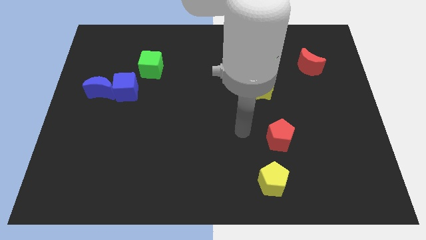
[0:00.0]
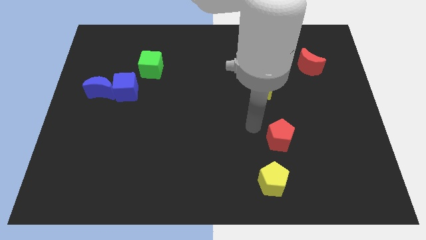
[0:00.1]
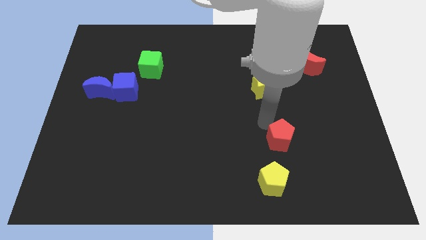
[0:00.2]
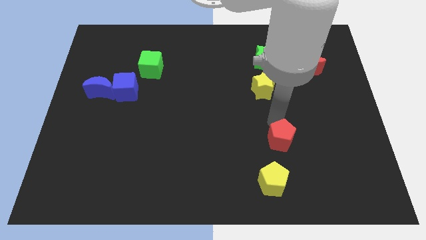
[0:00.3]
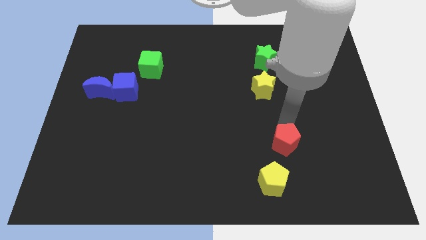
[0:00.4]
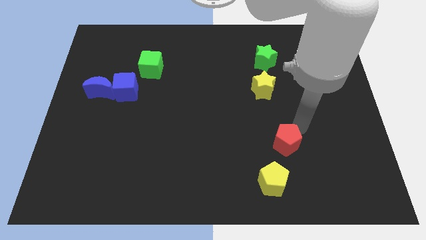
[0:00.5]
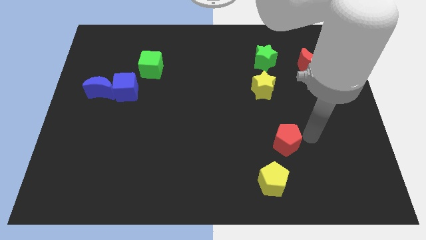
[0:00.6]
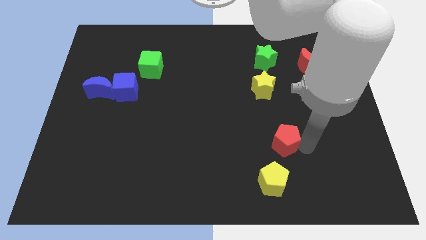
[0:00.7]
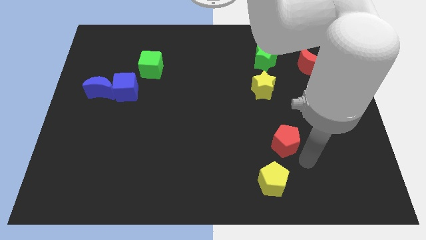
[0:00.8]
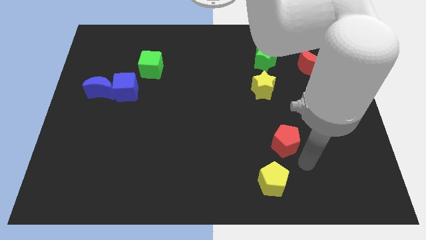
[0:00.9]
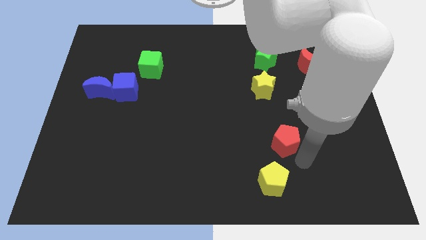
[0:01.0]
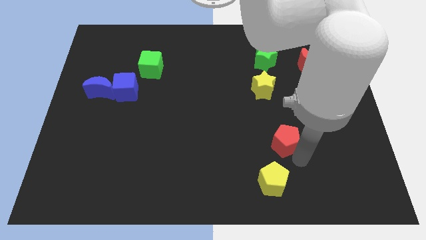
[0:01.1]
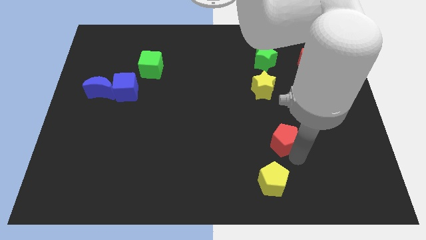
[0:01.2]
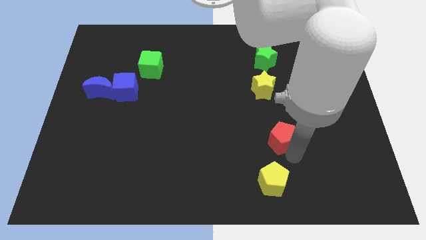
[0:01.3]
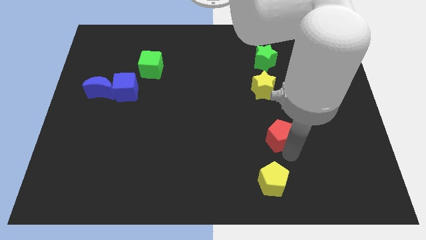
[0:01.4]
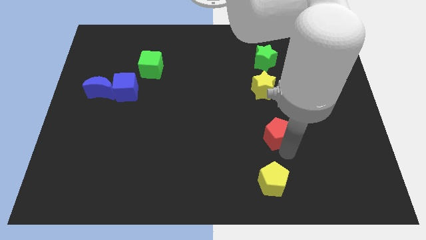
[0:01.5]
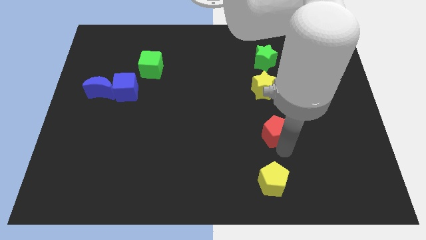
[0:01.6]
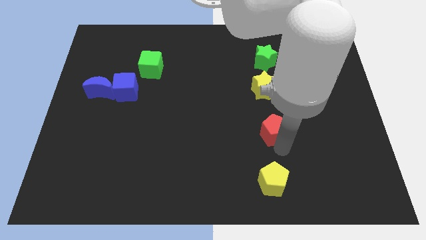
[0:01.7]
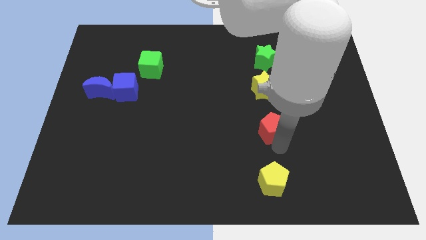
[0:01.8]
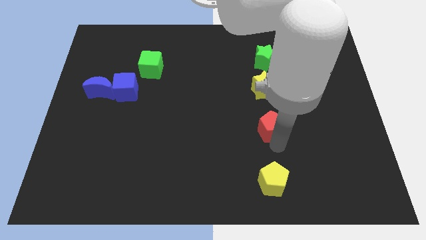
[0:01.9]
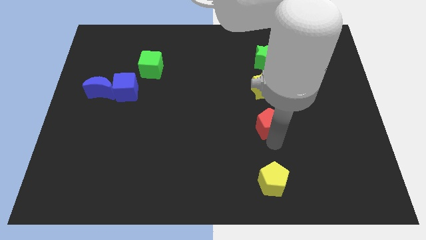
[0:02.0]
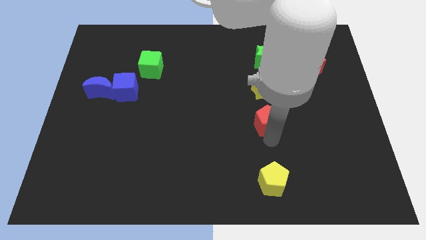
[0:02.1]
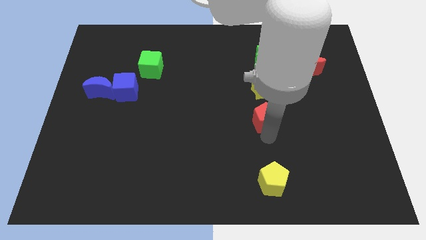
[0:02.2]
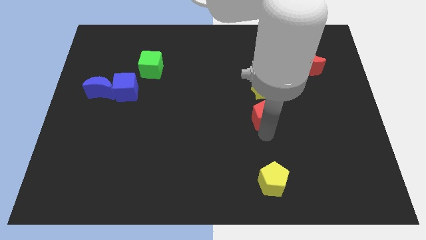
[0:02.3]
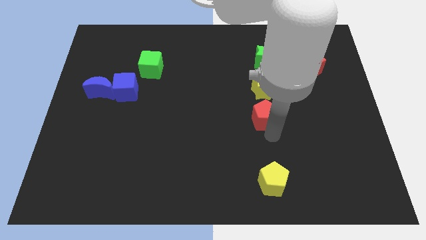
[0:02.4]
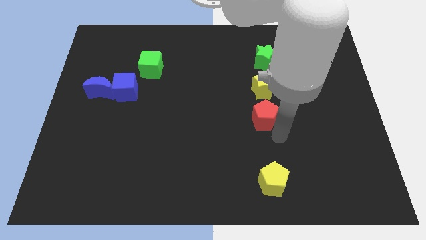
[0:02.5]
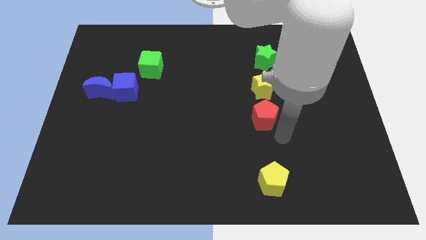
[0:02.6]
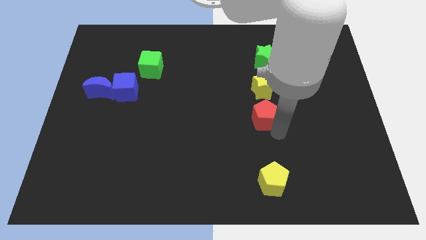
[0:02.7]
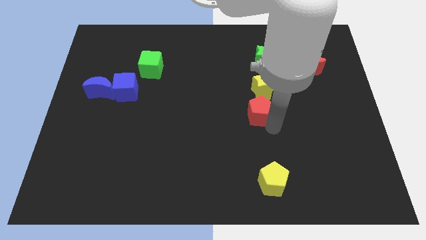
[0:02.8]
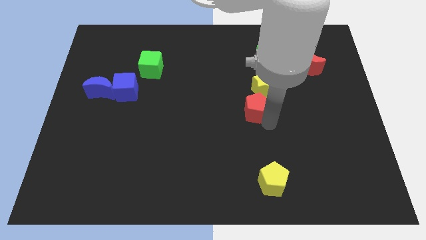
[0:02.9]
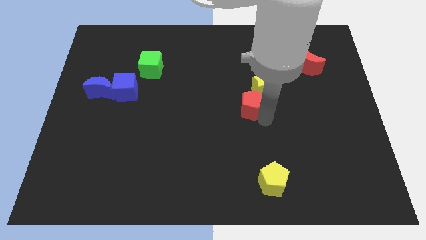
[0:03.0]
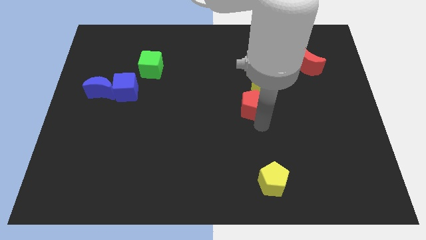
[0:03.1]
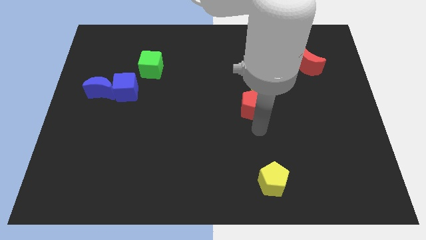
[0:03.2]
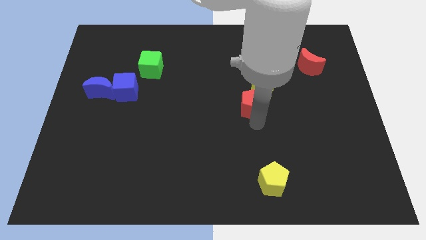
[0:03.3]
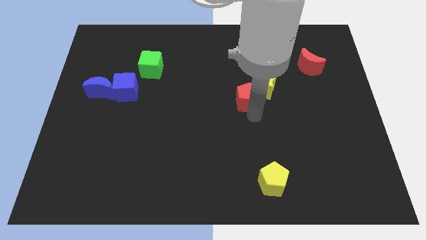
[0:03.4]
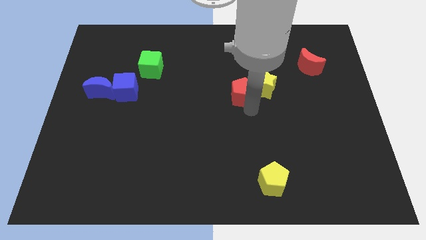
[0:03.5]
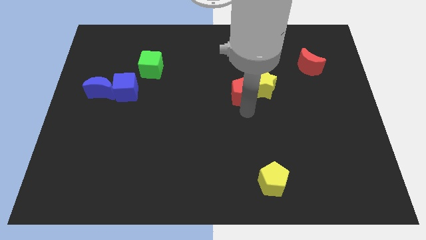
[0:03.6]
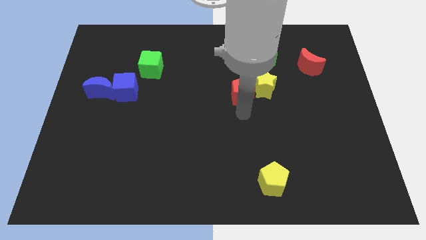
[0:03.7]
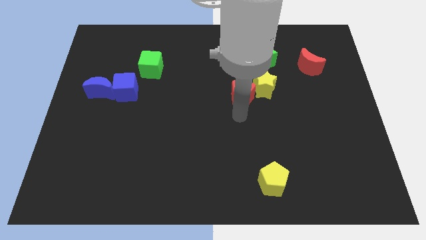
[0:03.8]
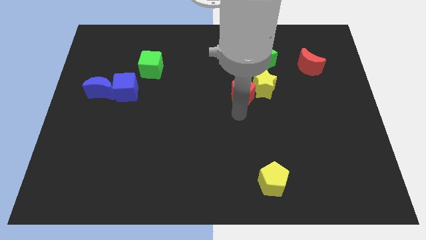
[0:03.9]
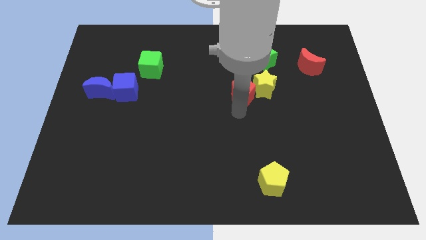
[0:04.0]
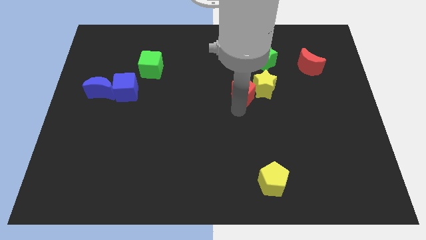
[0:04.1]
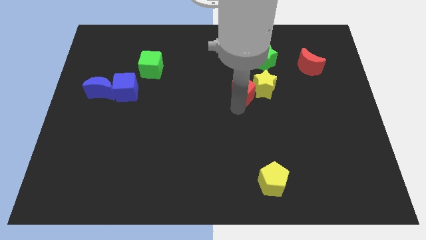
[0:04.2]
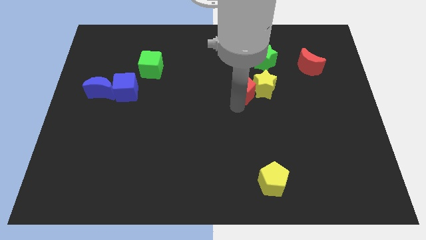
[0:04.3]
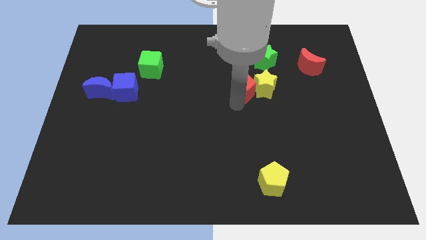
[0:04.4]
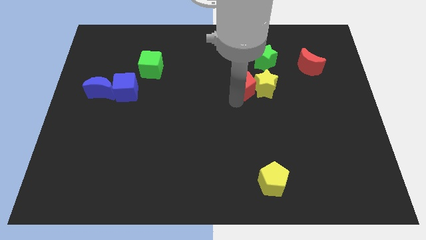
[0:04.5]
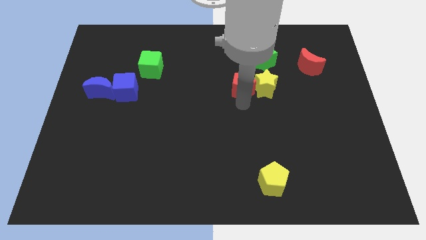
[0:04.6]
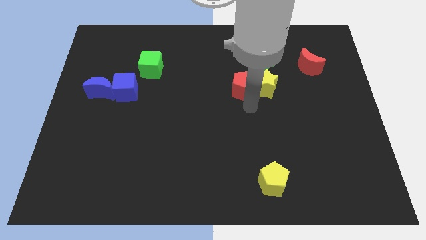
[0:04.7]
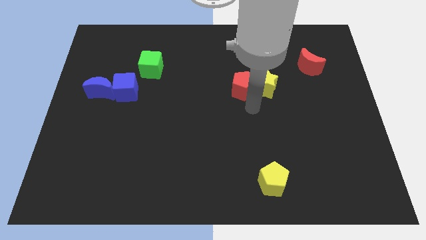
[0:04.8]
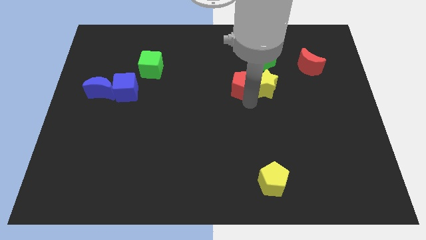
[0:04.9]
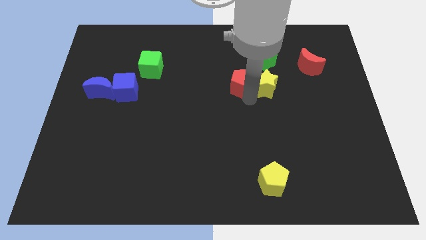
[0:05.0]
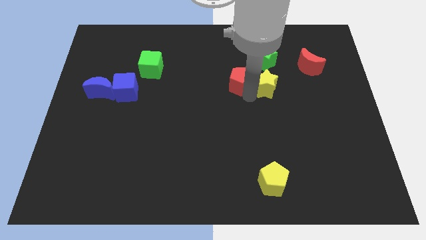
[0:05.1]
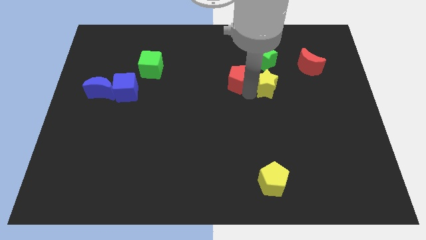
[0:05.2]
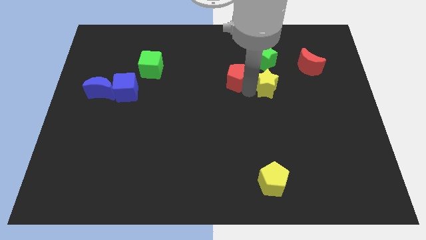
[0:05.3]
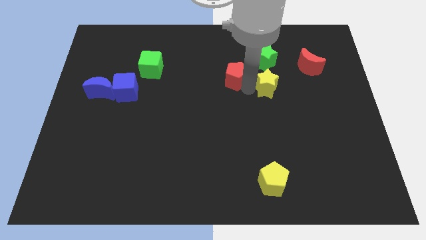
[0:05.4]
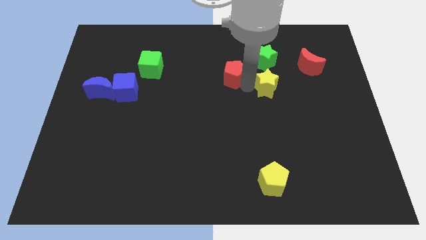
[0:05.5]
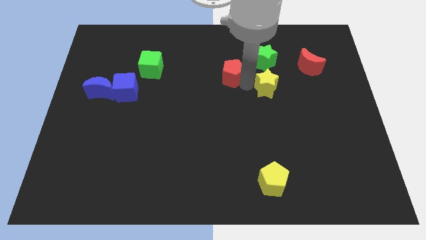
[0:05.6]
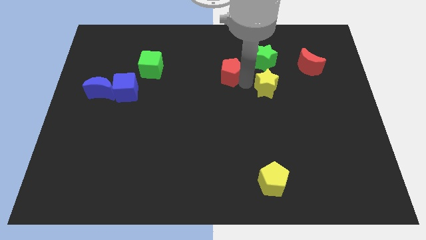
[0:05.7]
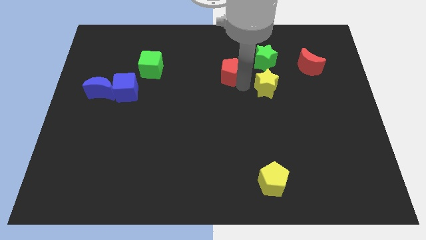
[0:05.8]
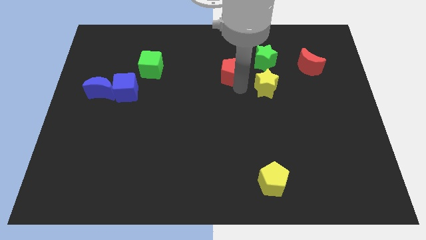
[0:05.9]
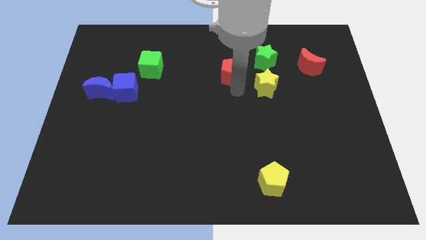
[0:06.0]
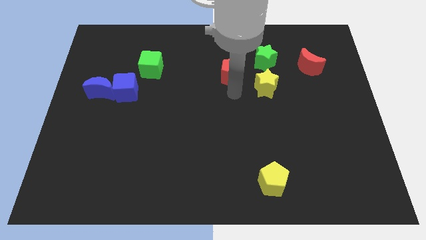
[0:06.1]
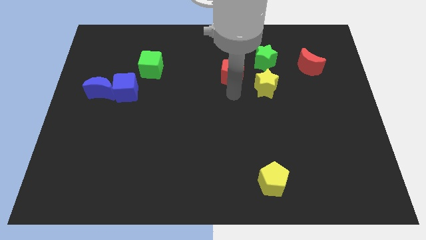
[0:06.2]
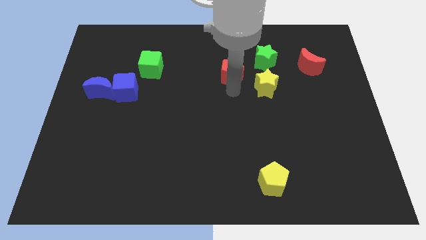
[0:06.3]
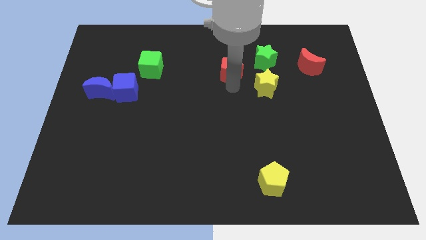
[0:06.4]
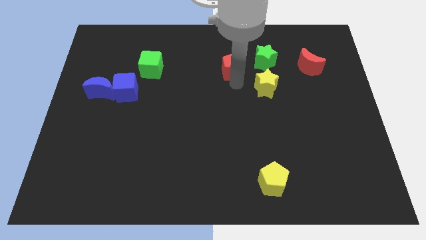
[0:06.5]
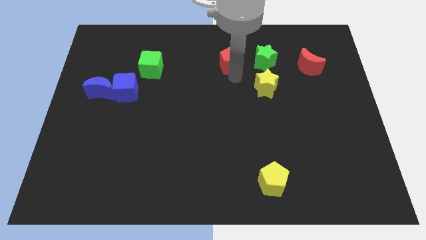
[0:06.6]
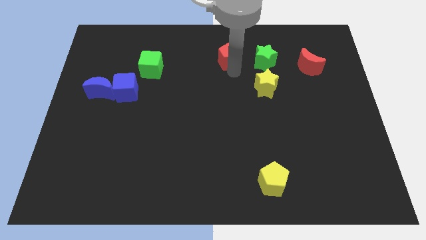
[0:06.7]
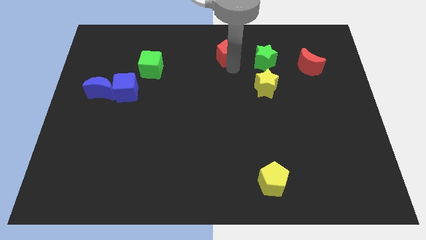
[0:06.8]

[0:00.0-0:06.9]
push the red pentagon to the towards your base
